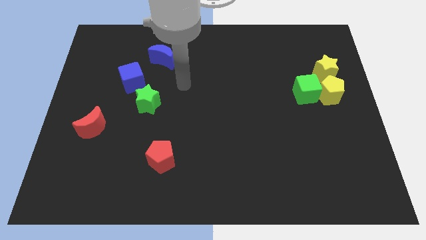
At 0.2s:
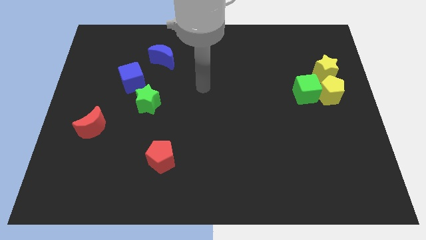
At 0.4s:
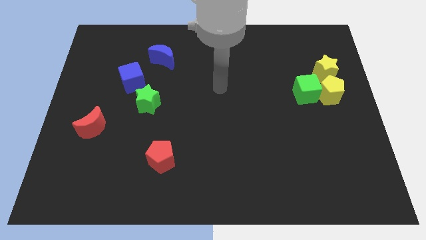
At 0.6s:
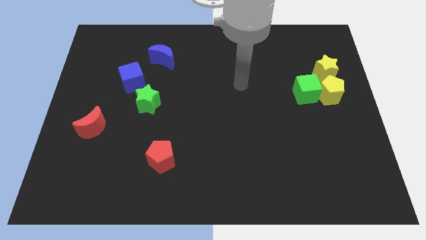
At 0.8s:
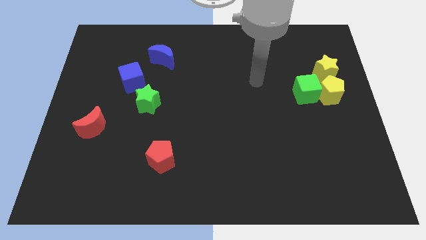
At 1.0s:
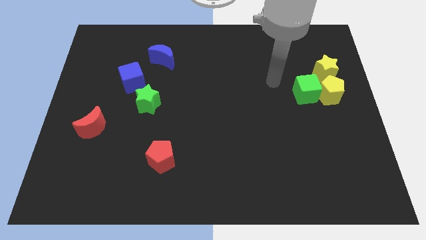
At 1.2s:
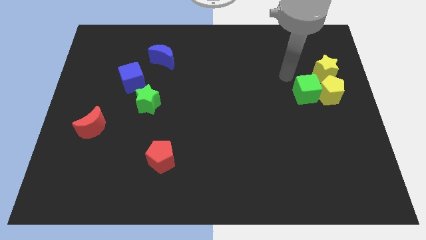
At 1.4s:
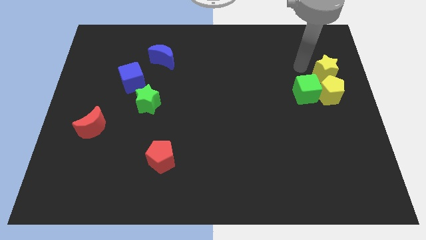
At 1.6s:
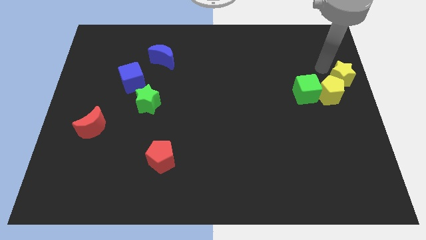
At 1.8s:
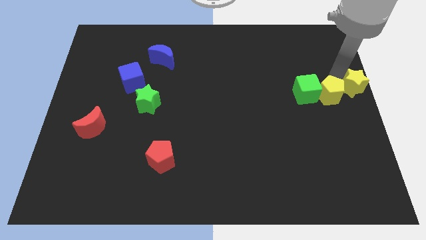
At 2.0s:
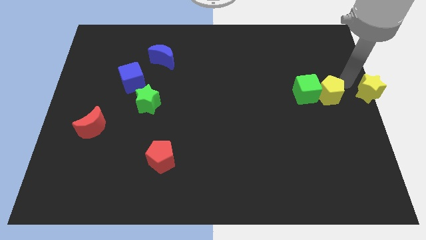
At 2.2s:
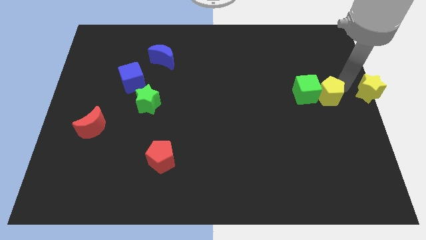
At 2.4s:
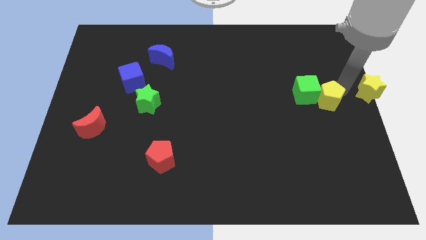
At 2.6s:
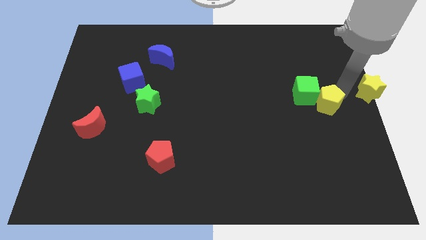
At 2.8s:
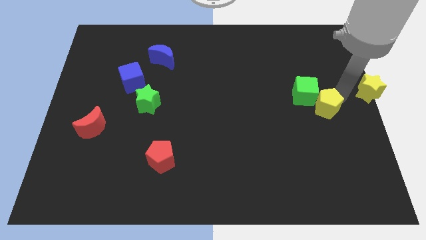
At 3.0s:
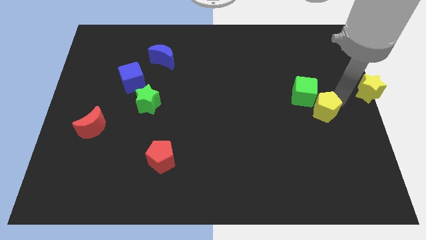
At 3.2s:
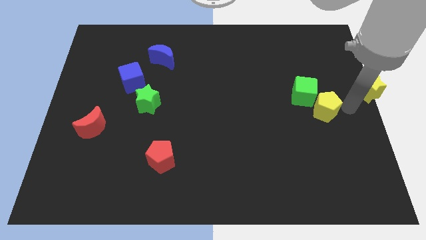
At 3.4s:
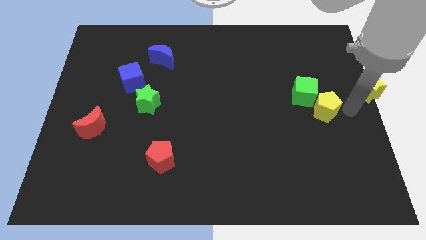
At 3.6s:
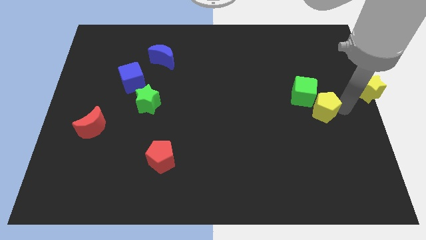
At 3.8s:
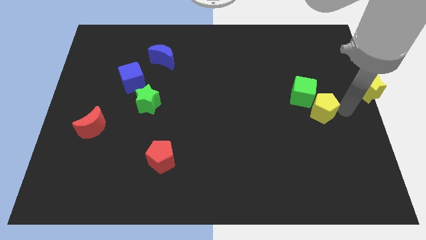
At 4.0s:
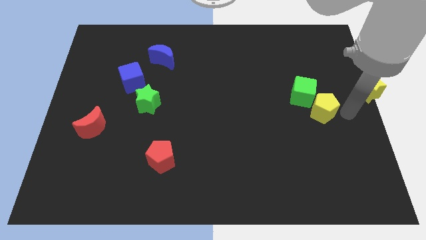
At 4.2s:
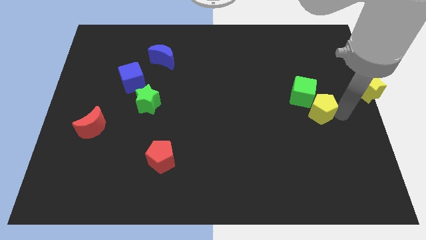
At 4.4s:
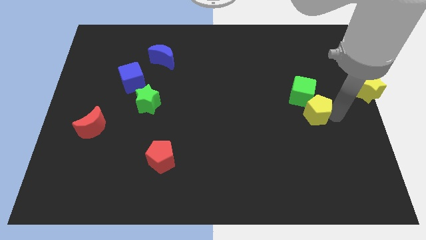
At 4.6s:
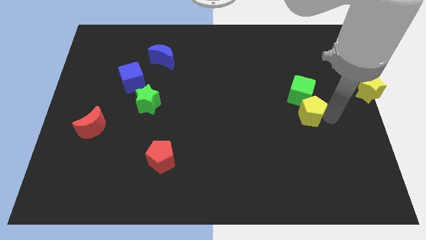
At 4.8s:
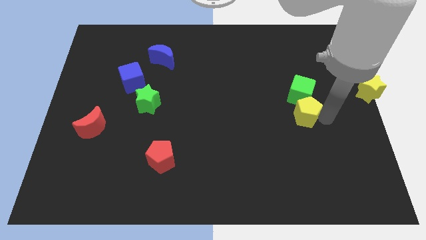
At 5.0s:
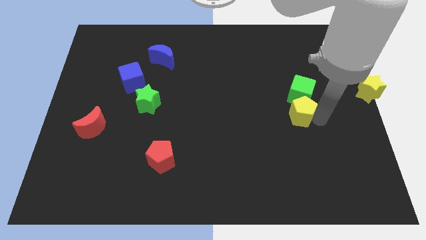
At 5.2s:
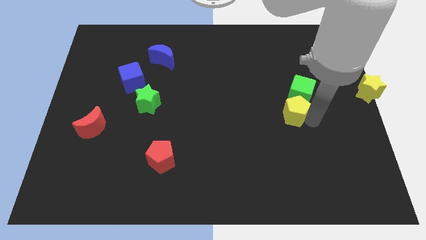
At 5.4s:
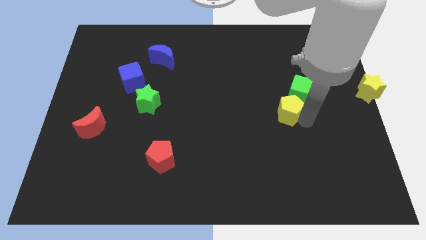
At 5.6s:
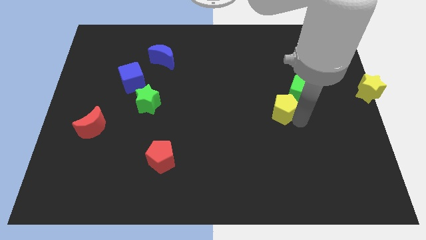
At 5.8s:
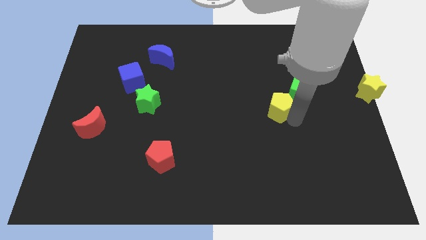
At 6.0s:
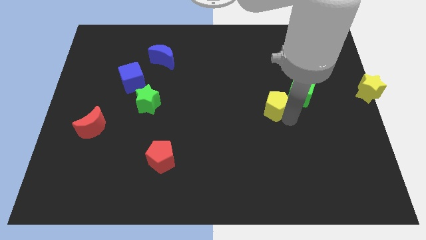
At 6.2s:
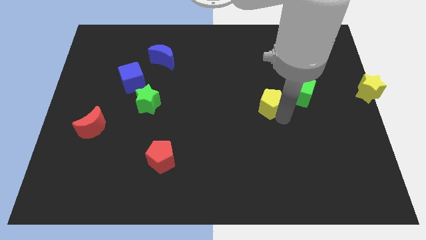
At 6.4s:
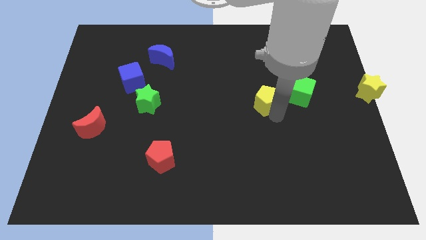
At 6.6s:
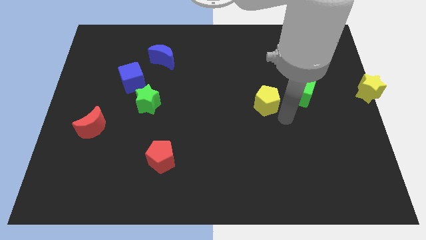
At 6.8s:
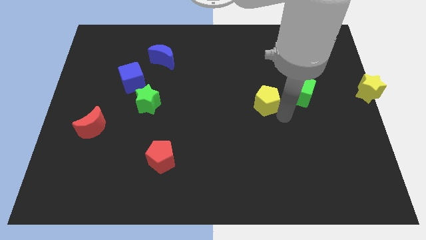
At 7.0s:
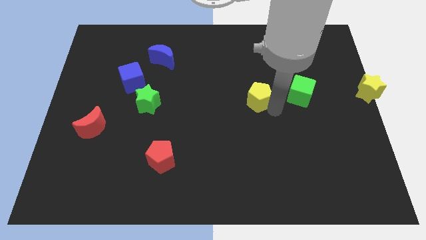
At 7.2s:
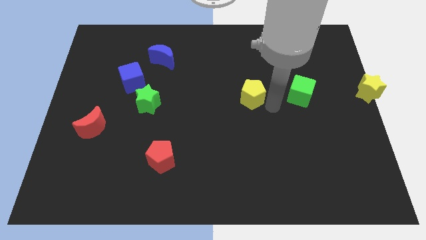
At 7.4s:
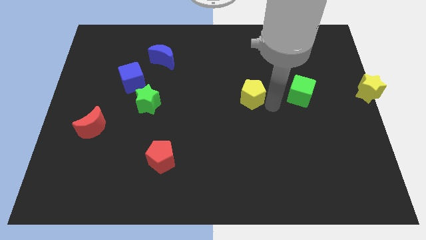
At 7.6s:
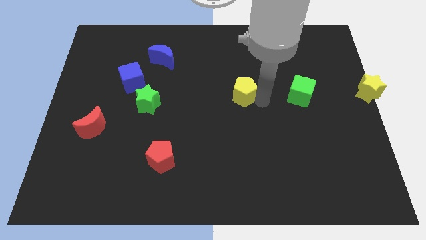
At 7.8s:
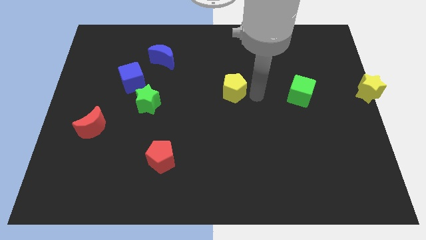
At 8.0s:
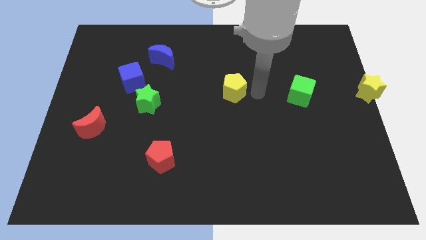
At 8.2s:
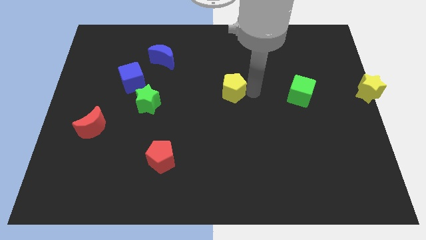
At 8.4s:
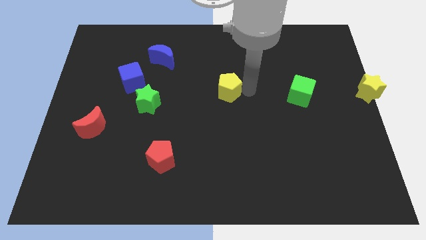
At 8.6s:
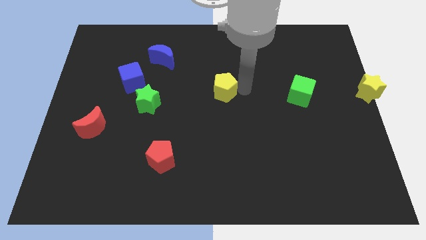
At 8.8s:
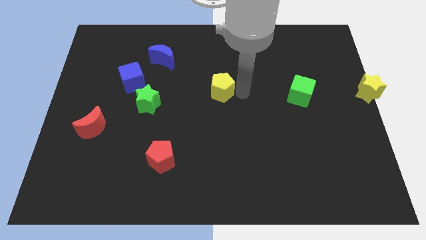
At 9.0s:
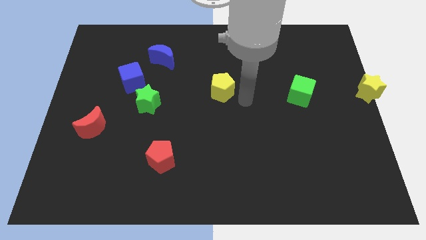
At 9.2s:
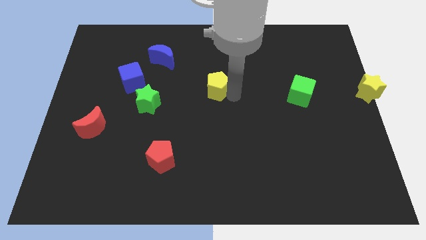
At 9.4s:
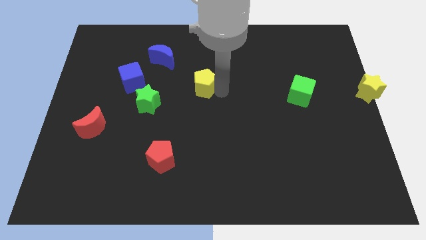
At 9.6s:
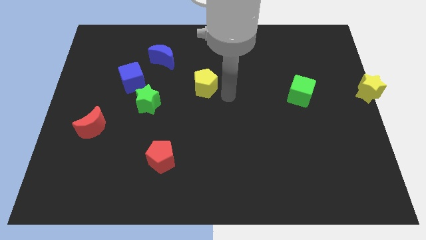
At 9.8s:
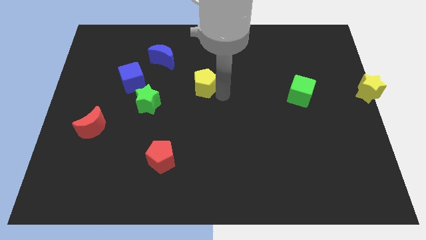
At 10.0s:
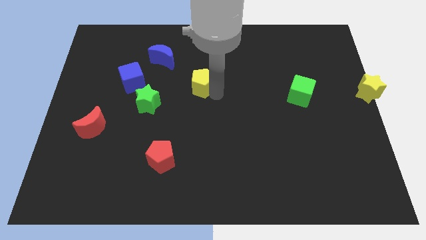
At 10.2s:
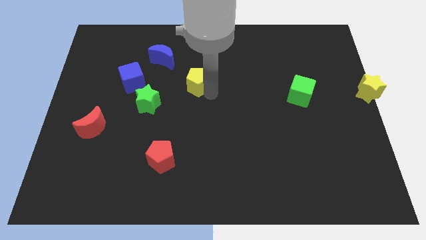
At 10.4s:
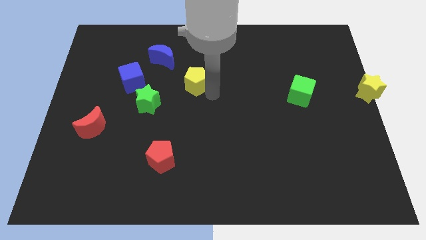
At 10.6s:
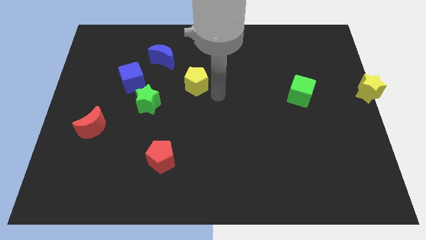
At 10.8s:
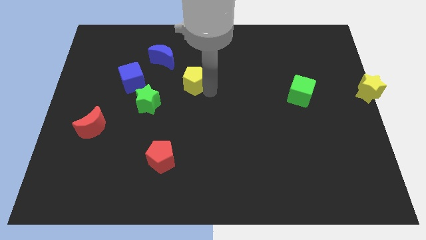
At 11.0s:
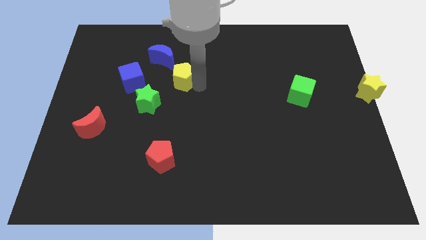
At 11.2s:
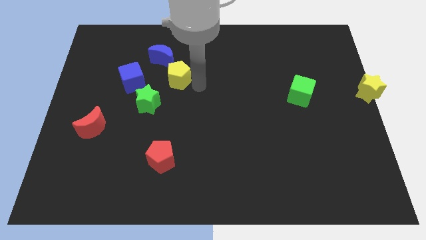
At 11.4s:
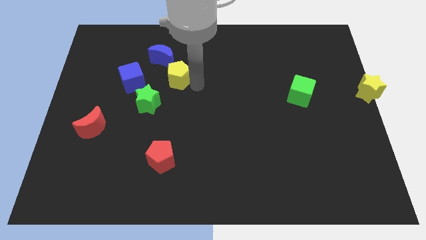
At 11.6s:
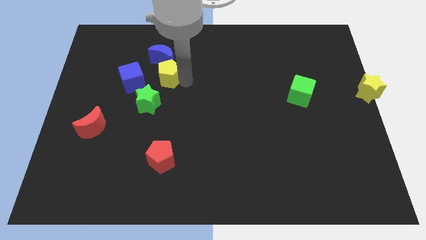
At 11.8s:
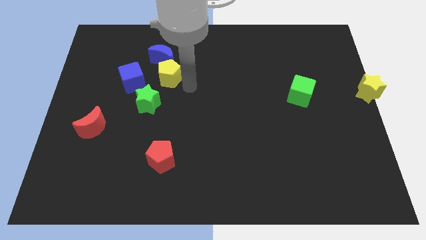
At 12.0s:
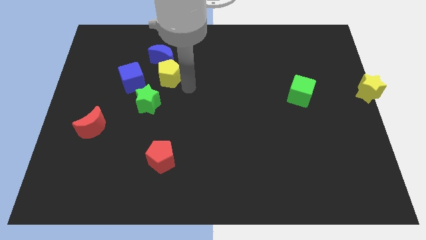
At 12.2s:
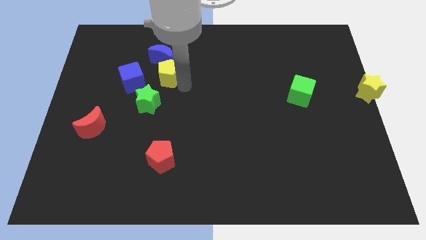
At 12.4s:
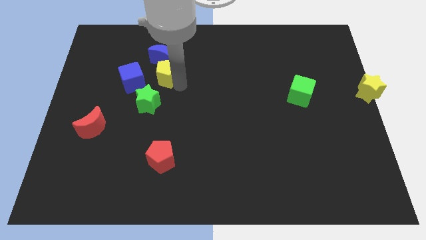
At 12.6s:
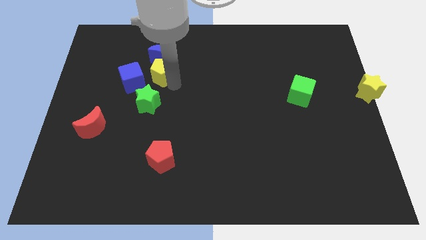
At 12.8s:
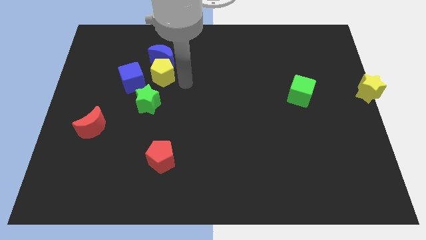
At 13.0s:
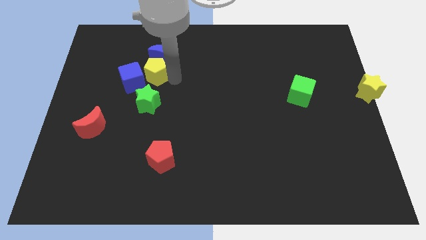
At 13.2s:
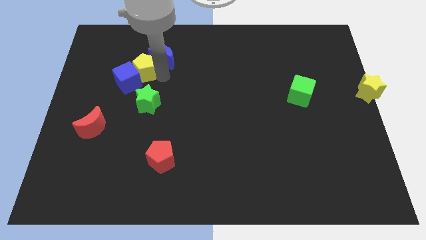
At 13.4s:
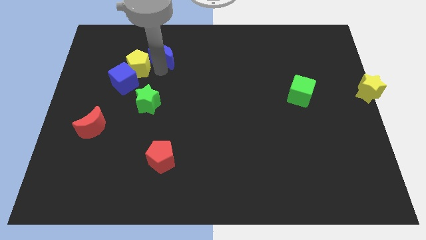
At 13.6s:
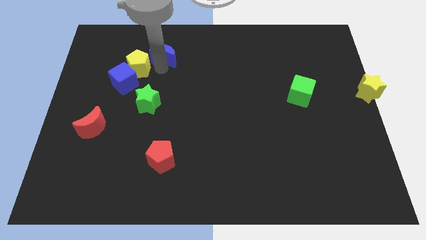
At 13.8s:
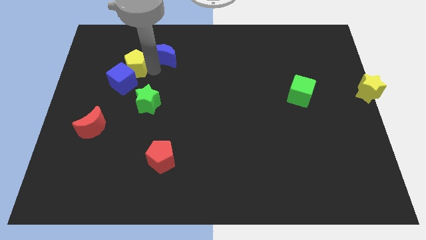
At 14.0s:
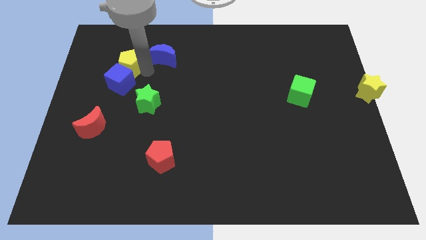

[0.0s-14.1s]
push the yellow pentagon diagonally up and to the left of the blue cube

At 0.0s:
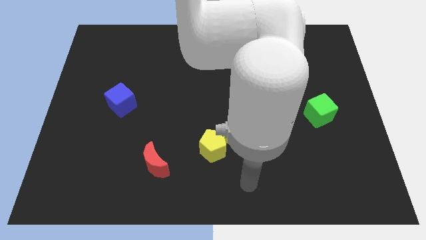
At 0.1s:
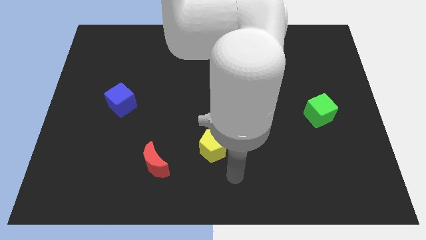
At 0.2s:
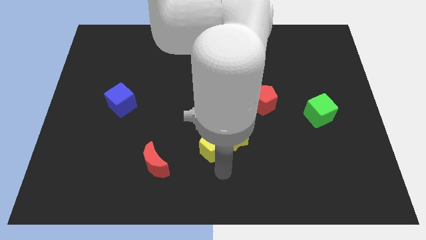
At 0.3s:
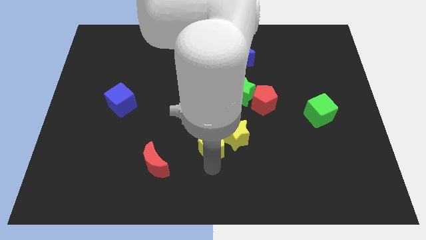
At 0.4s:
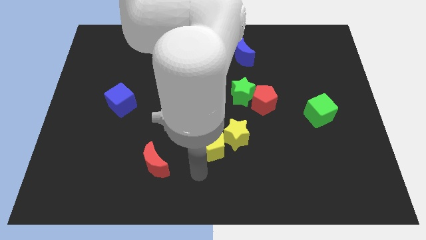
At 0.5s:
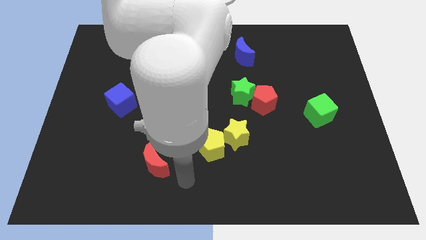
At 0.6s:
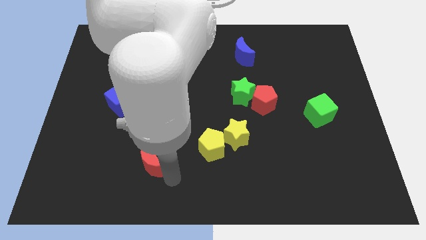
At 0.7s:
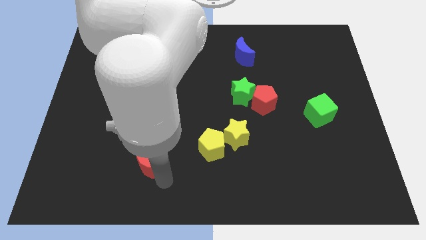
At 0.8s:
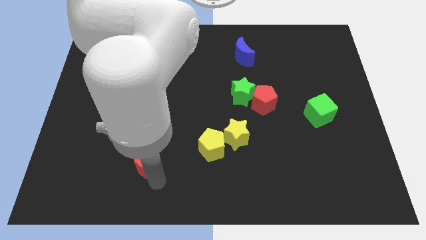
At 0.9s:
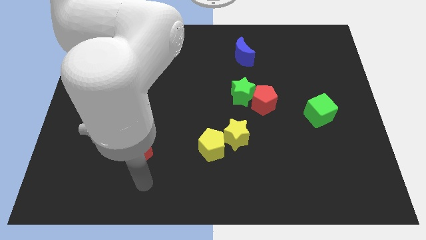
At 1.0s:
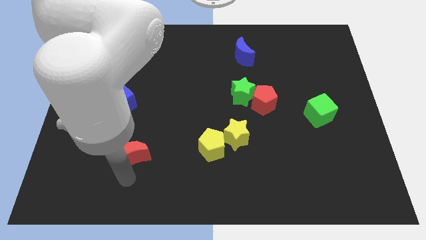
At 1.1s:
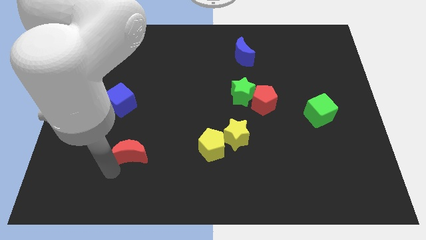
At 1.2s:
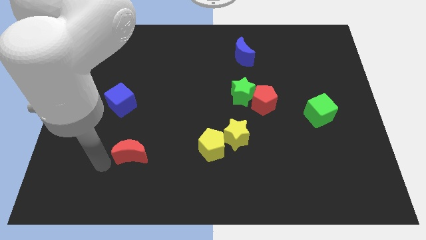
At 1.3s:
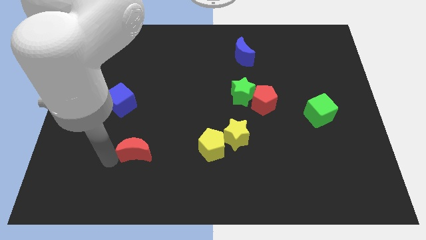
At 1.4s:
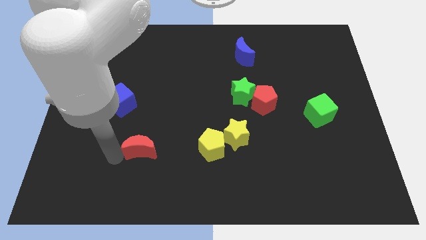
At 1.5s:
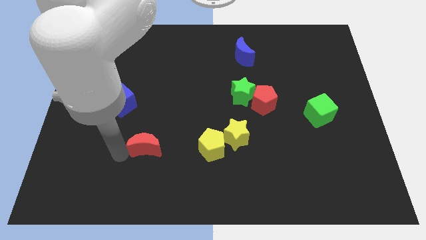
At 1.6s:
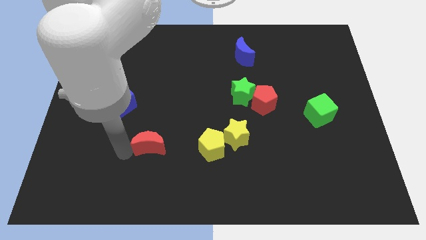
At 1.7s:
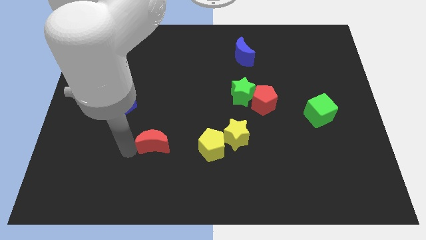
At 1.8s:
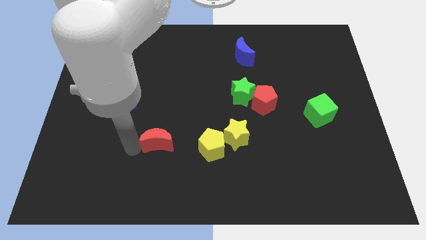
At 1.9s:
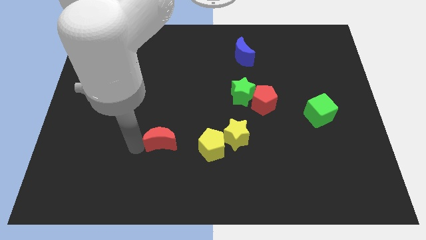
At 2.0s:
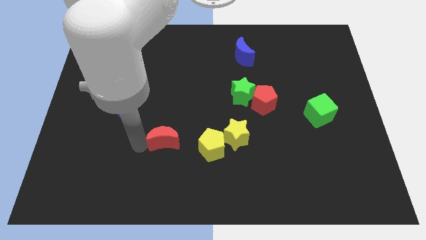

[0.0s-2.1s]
push the red moon to the left side of the yellow star
